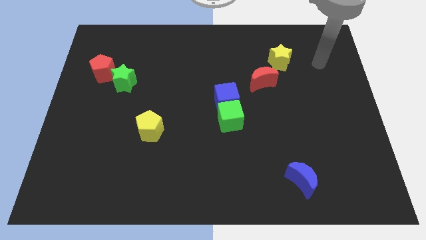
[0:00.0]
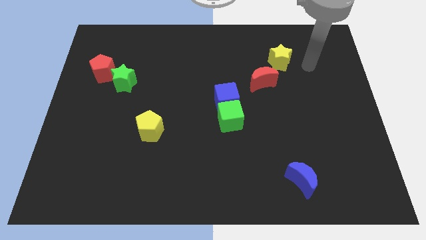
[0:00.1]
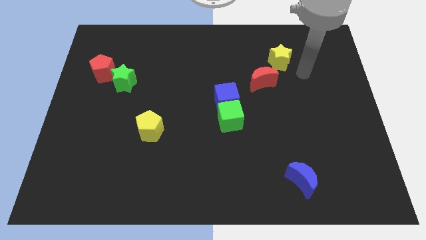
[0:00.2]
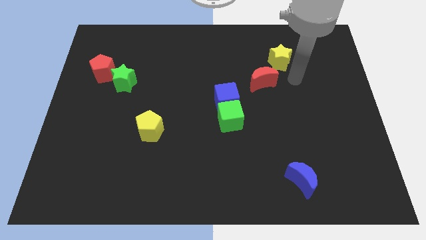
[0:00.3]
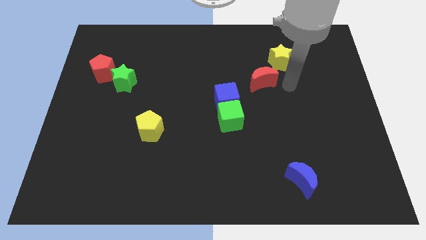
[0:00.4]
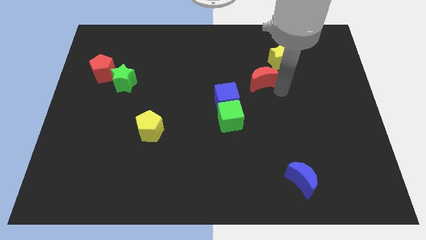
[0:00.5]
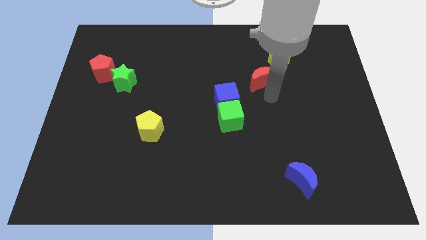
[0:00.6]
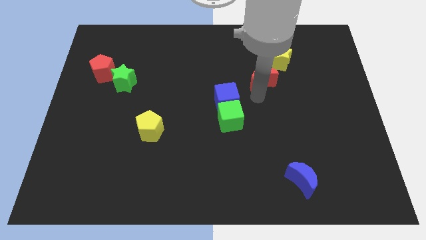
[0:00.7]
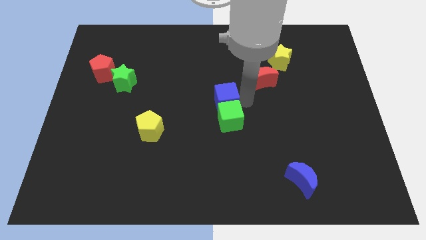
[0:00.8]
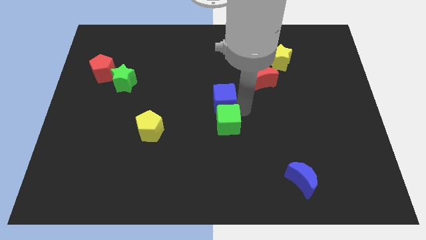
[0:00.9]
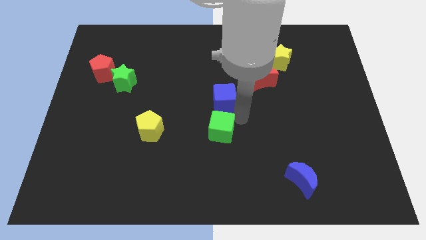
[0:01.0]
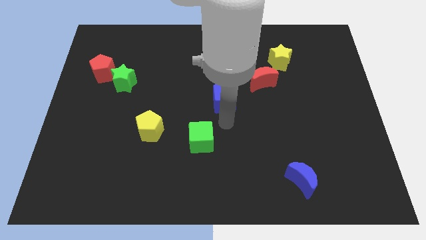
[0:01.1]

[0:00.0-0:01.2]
move the blue cube away from the green cube

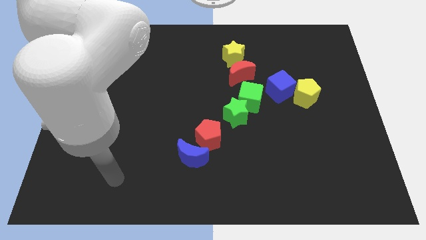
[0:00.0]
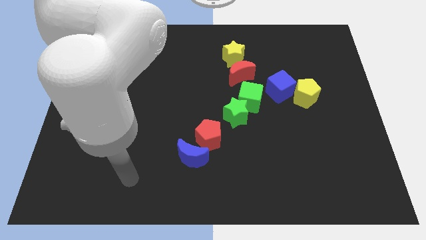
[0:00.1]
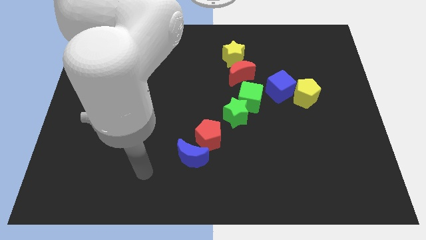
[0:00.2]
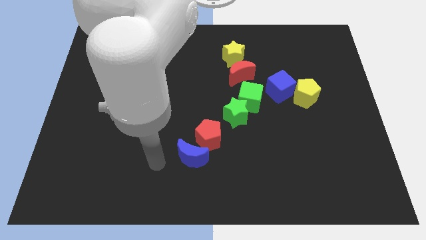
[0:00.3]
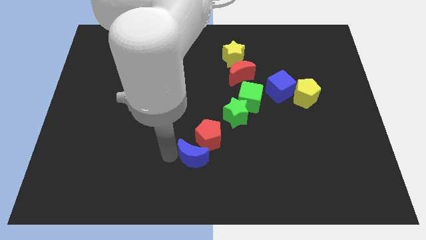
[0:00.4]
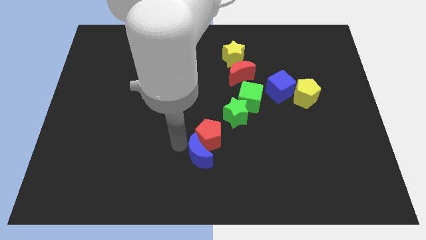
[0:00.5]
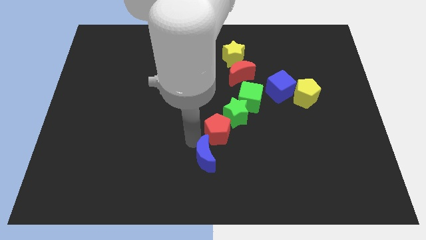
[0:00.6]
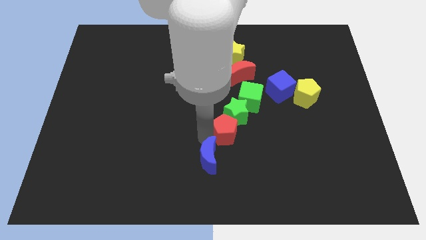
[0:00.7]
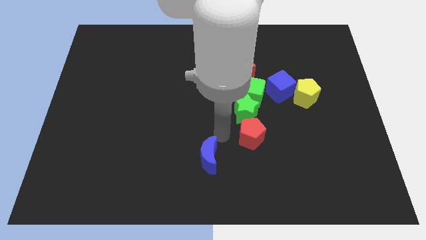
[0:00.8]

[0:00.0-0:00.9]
move the blue moon away from the red pentagon

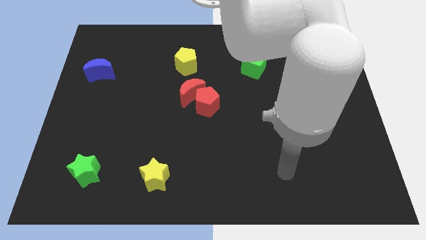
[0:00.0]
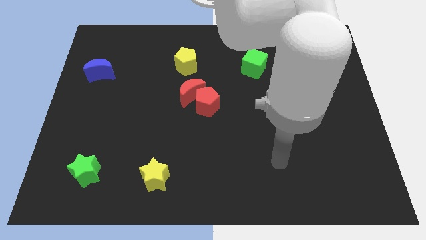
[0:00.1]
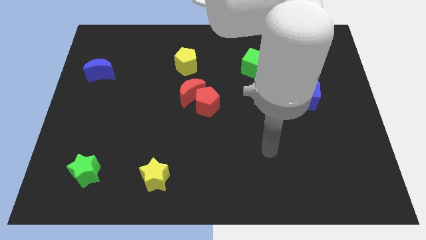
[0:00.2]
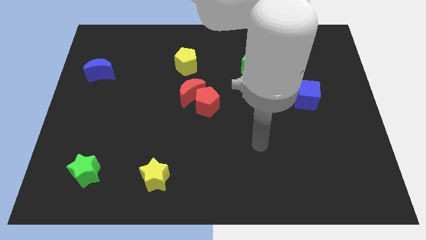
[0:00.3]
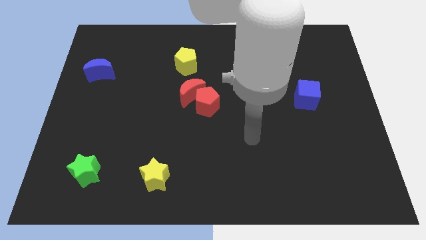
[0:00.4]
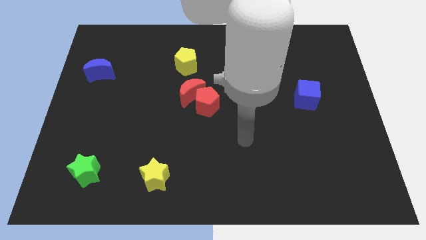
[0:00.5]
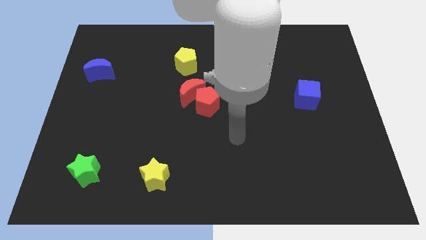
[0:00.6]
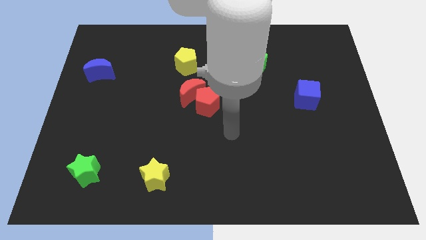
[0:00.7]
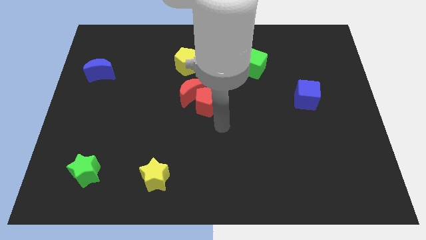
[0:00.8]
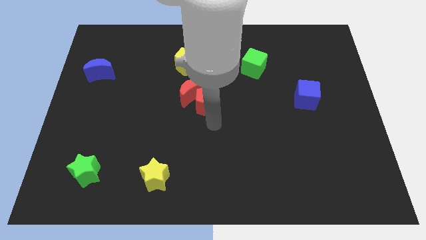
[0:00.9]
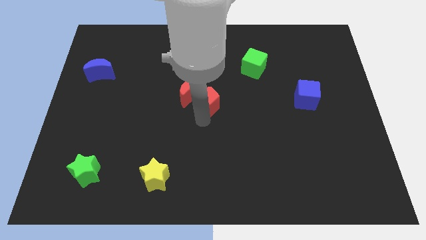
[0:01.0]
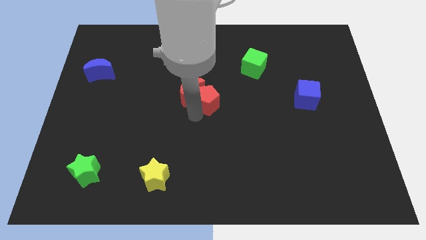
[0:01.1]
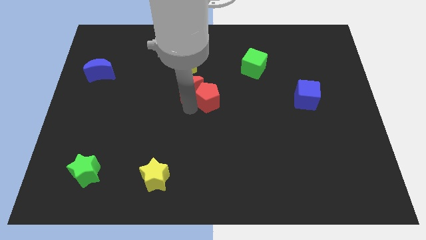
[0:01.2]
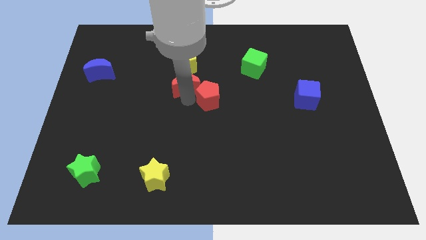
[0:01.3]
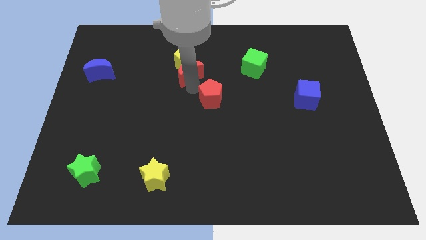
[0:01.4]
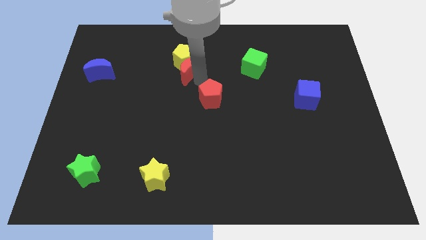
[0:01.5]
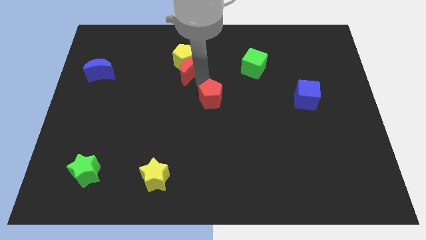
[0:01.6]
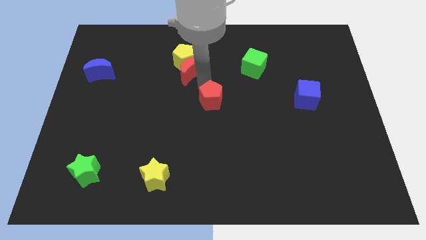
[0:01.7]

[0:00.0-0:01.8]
move the red pentagon away from the red moon

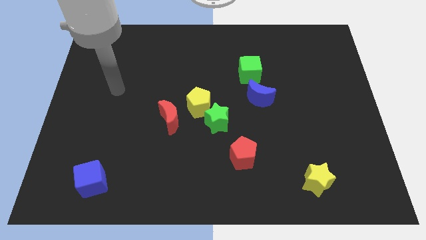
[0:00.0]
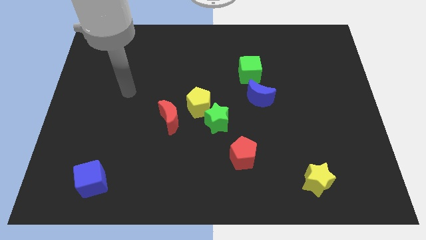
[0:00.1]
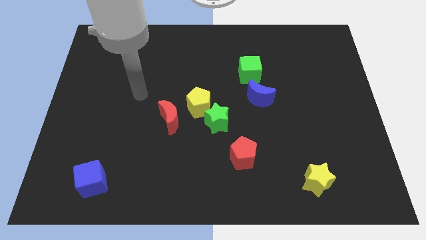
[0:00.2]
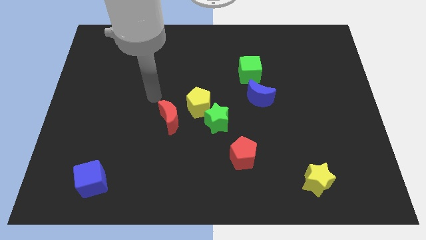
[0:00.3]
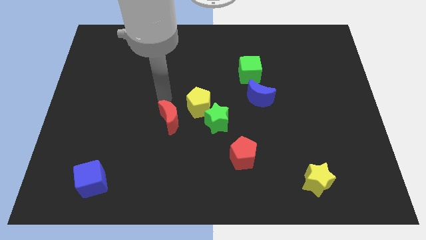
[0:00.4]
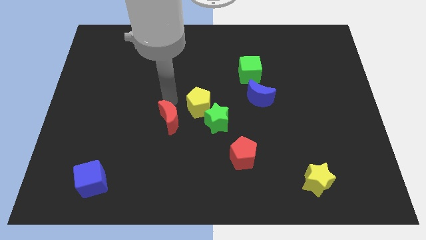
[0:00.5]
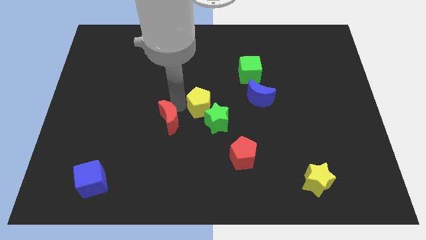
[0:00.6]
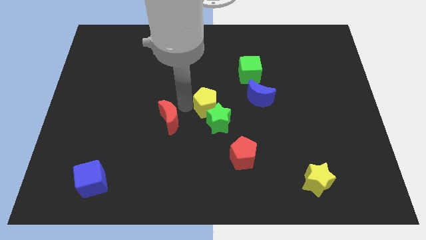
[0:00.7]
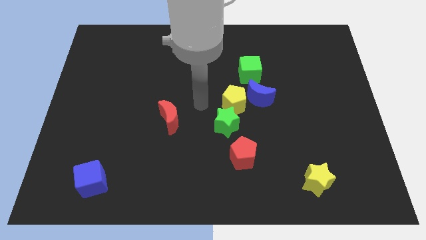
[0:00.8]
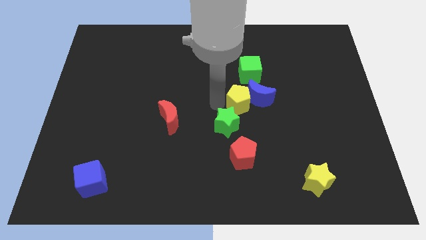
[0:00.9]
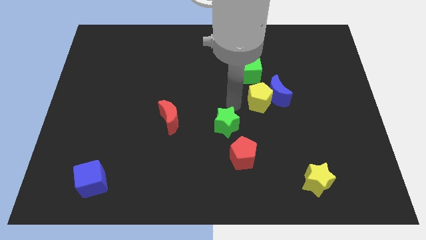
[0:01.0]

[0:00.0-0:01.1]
pull the green star apart from the yellow pentagon

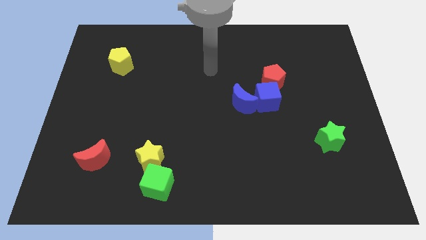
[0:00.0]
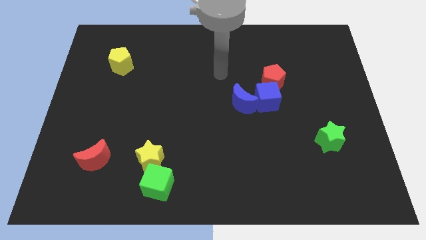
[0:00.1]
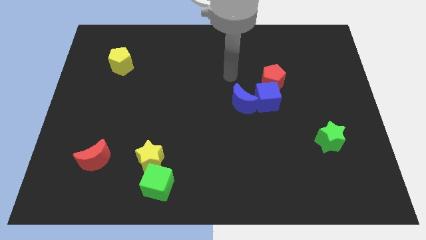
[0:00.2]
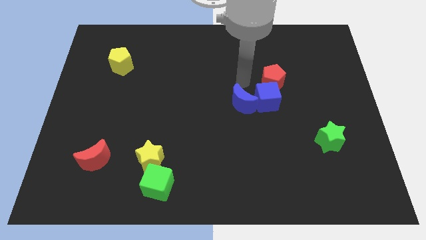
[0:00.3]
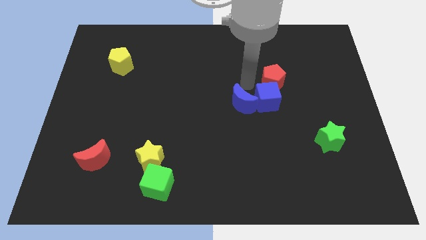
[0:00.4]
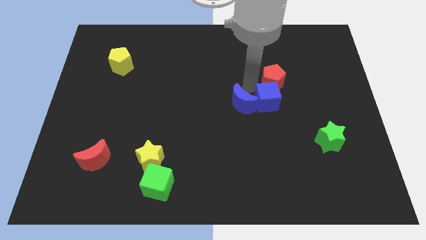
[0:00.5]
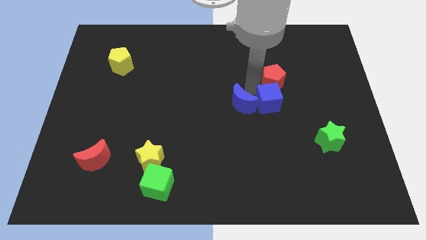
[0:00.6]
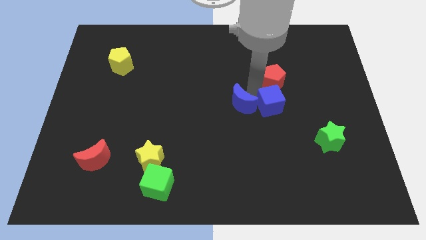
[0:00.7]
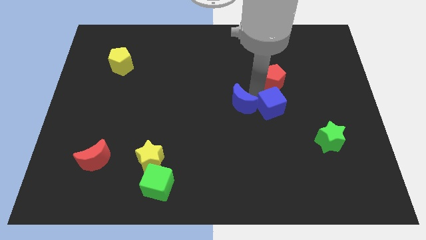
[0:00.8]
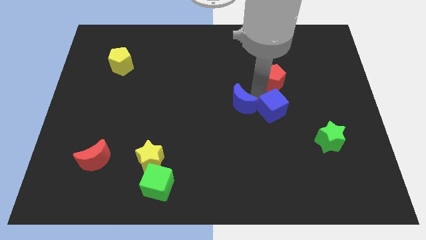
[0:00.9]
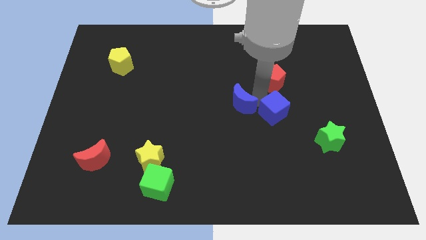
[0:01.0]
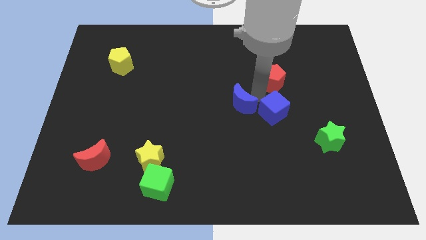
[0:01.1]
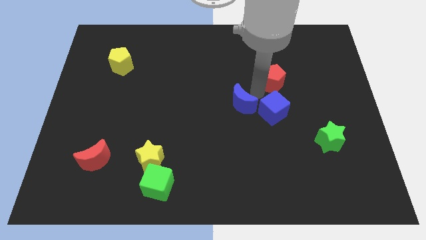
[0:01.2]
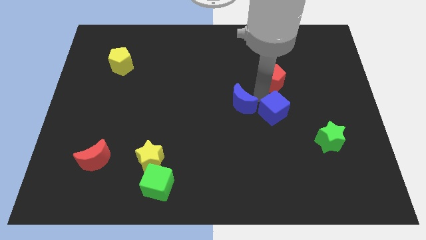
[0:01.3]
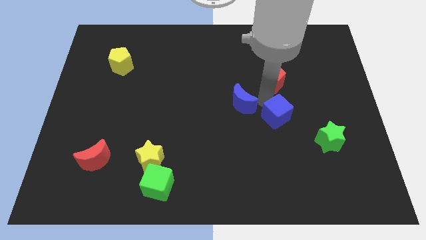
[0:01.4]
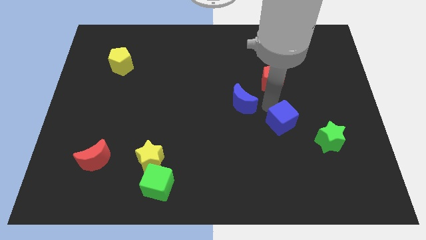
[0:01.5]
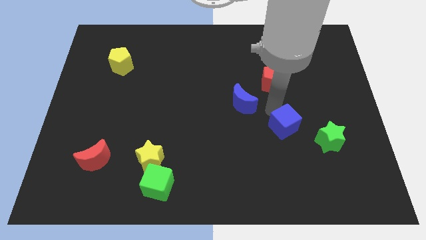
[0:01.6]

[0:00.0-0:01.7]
separate the blue cube from the red pentagon and blue moon

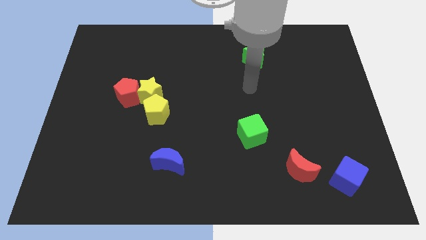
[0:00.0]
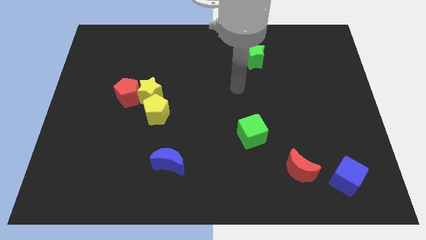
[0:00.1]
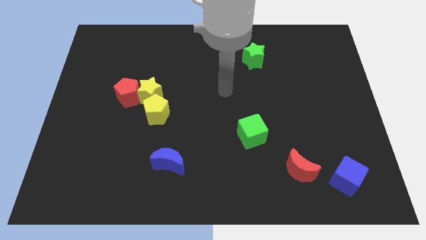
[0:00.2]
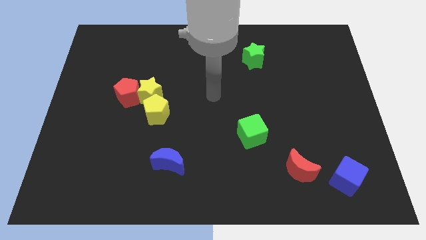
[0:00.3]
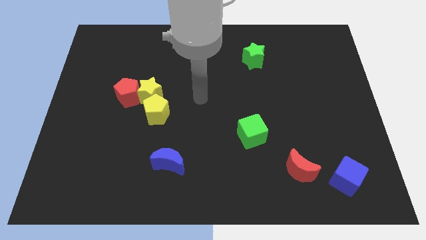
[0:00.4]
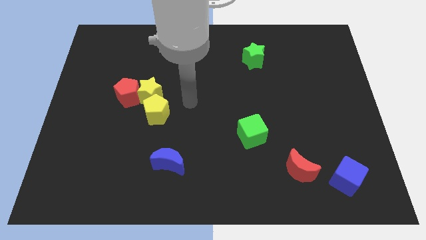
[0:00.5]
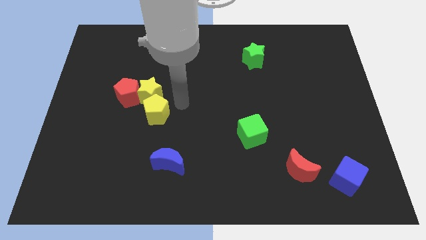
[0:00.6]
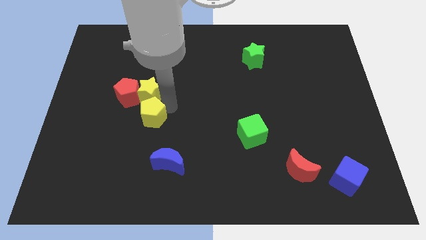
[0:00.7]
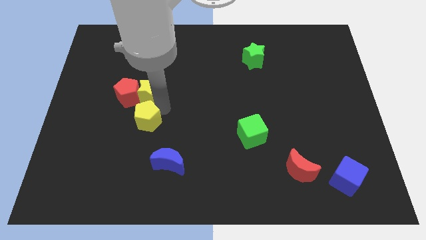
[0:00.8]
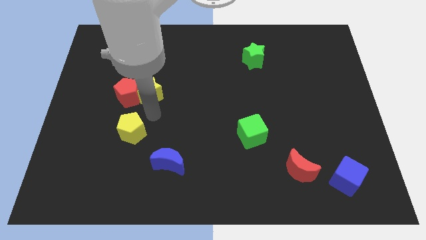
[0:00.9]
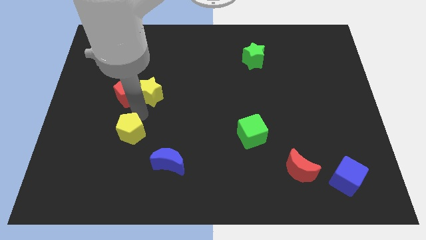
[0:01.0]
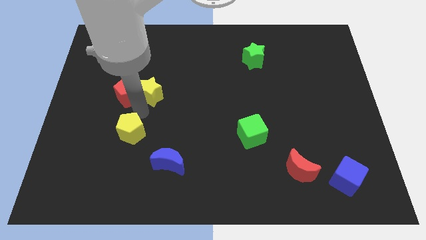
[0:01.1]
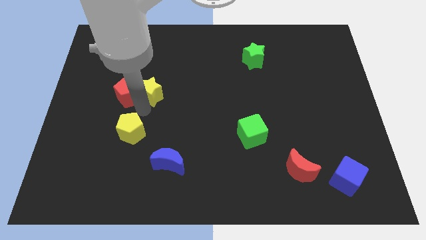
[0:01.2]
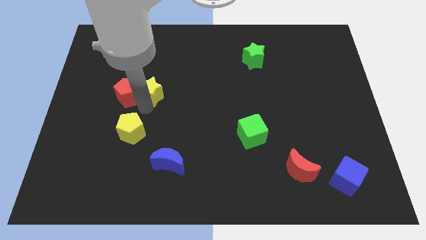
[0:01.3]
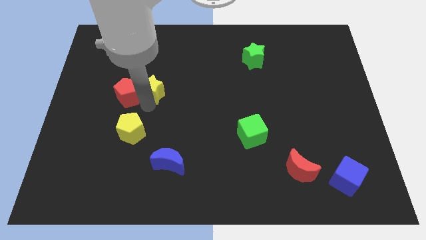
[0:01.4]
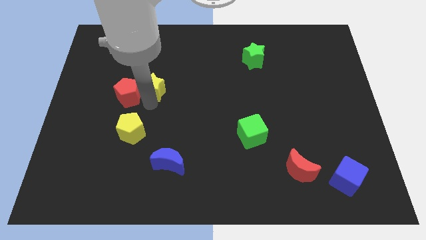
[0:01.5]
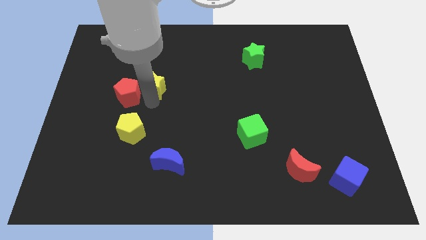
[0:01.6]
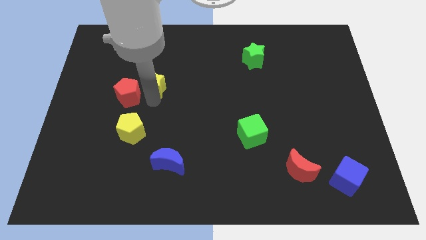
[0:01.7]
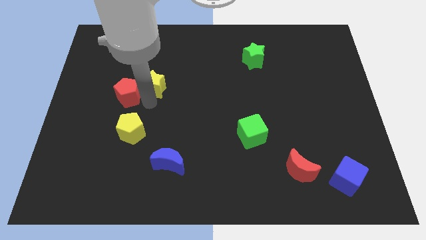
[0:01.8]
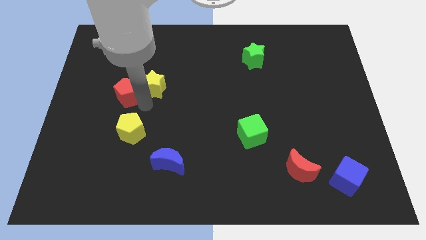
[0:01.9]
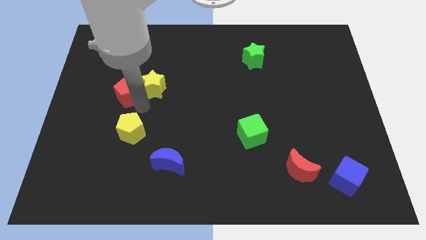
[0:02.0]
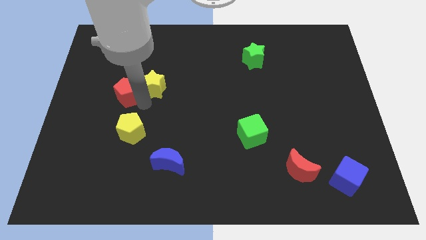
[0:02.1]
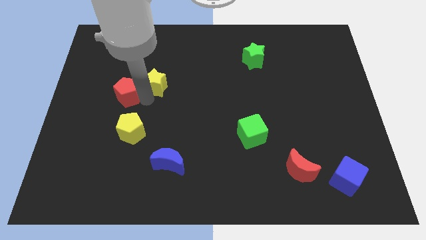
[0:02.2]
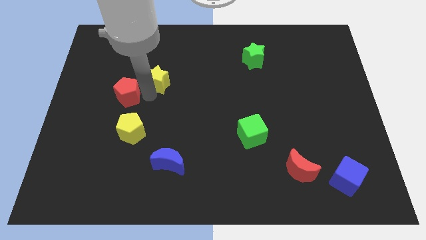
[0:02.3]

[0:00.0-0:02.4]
separate the yellow star from the red pentagon and yellow pentagon

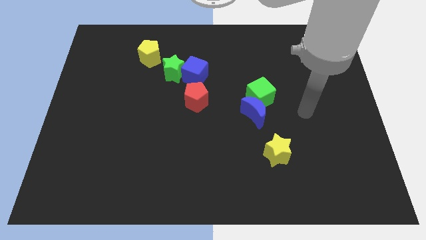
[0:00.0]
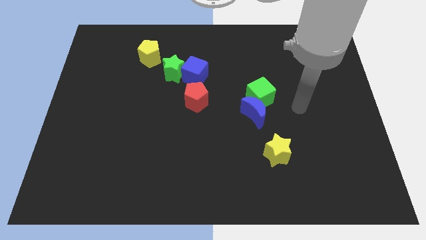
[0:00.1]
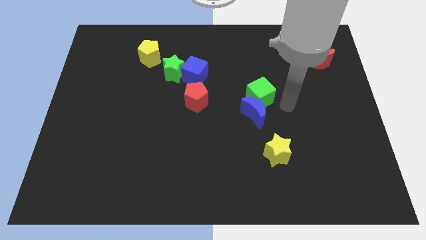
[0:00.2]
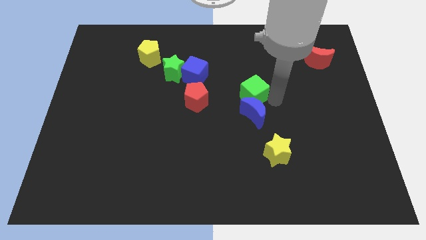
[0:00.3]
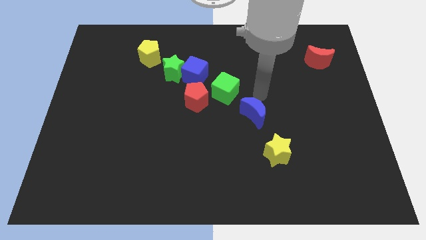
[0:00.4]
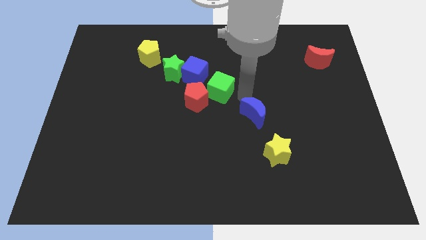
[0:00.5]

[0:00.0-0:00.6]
separate the blue moon from the green cube
